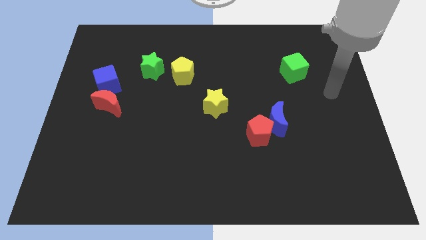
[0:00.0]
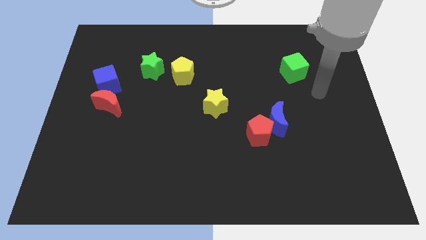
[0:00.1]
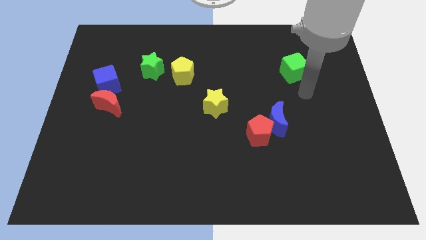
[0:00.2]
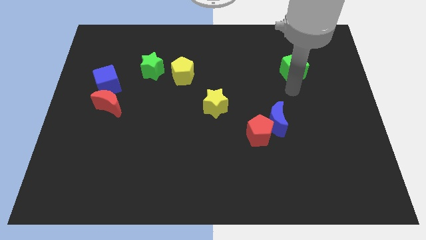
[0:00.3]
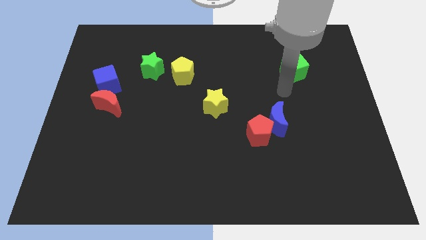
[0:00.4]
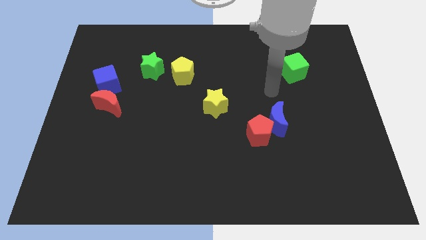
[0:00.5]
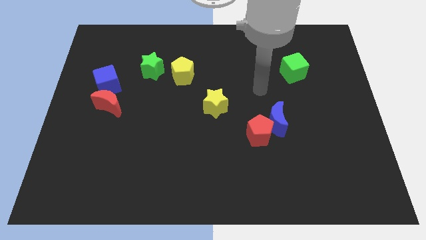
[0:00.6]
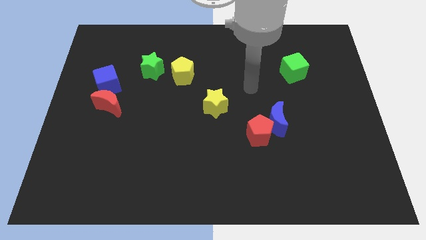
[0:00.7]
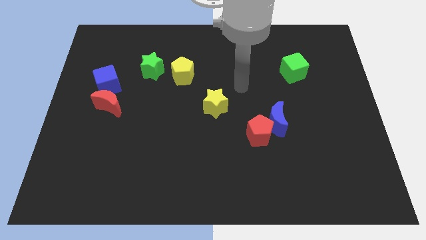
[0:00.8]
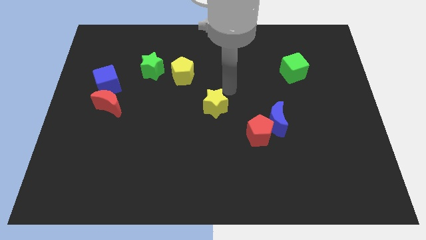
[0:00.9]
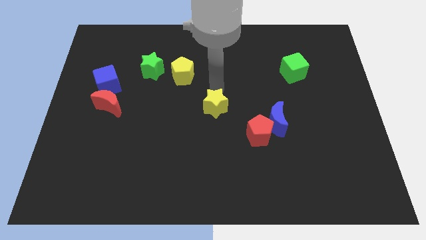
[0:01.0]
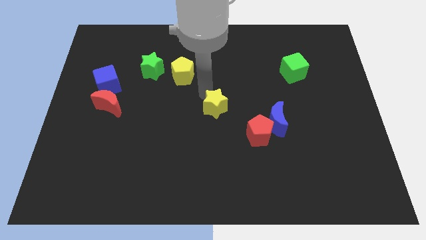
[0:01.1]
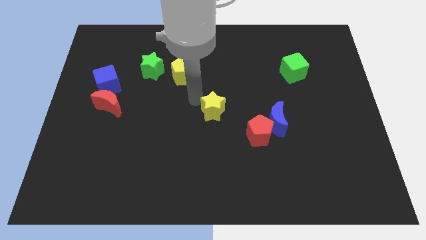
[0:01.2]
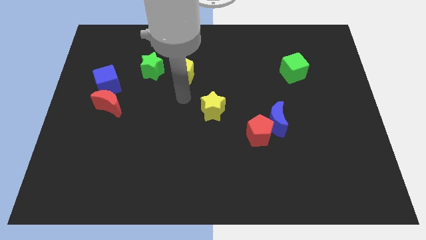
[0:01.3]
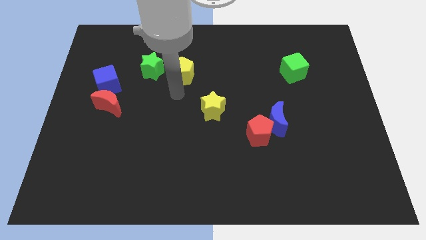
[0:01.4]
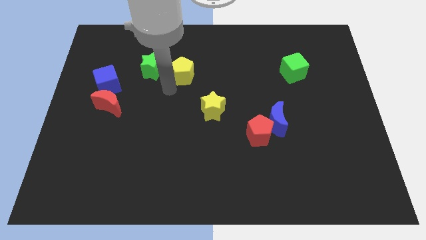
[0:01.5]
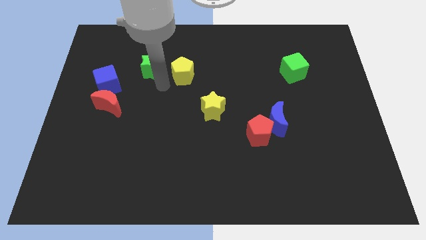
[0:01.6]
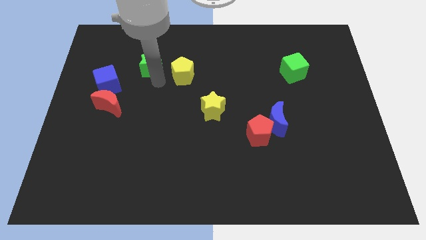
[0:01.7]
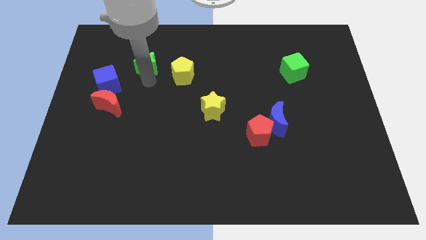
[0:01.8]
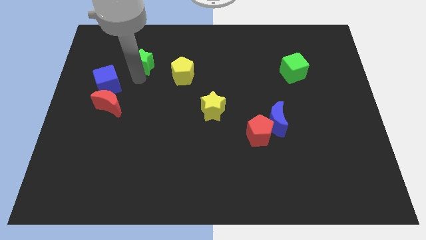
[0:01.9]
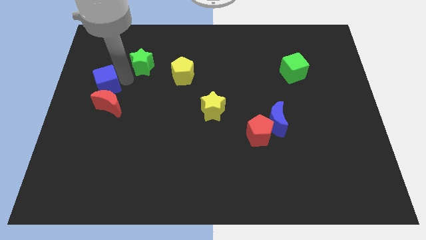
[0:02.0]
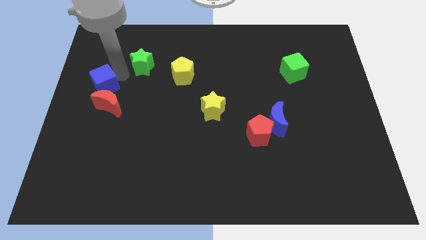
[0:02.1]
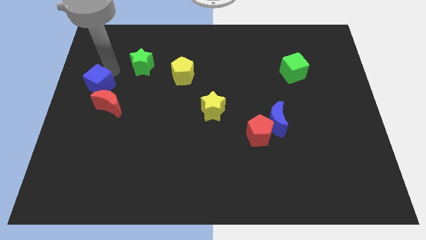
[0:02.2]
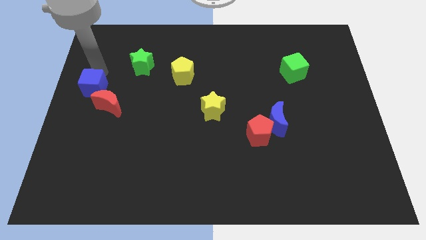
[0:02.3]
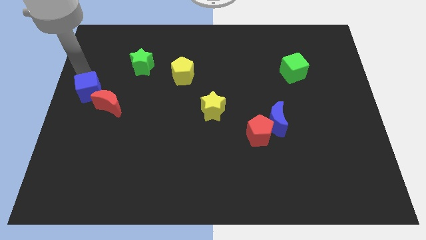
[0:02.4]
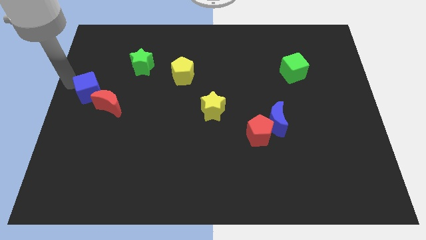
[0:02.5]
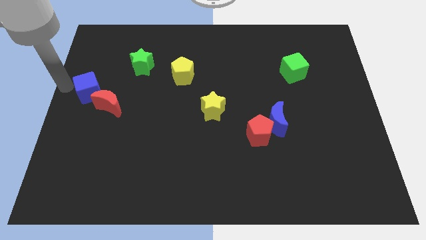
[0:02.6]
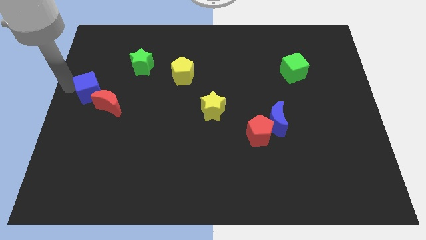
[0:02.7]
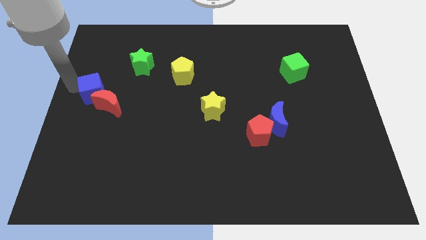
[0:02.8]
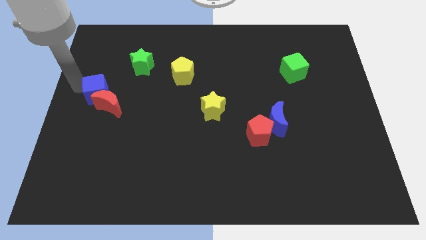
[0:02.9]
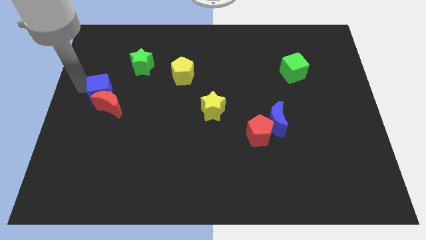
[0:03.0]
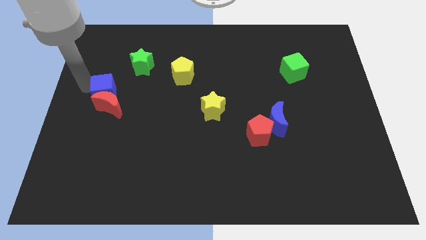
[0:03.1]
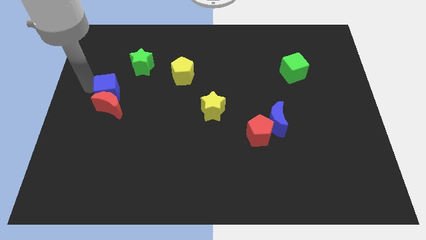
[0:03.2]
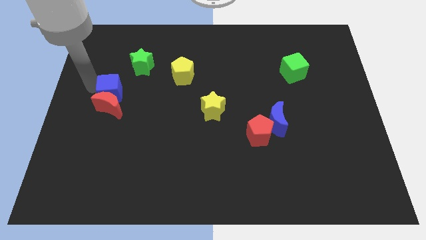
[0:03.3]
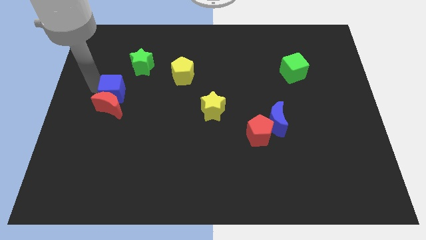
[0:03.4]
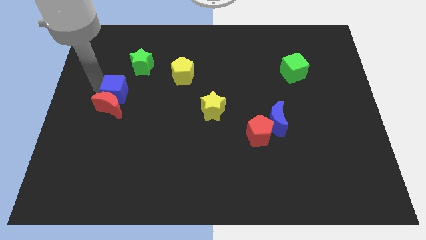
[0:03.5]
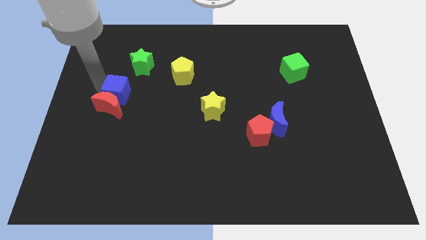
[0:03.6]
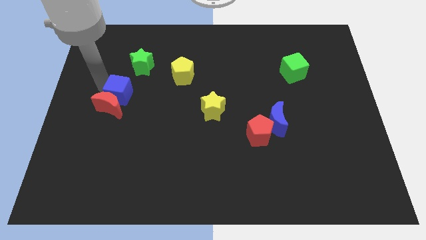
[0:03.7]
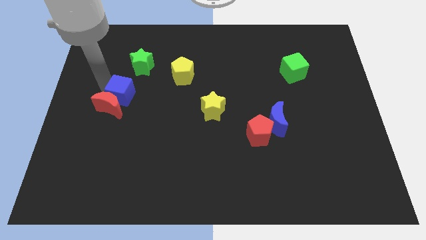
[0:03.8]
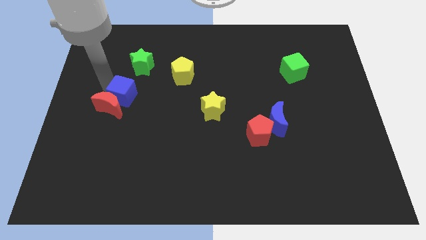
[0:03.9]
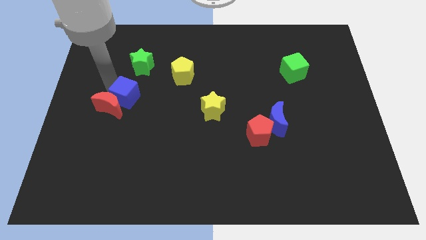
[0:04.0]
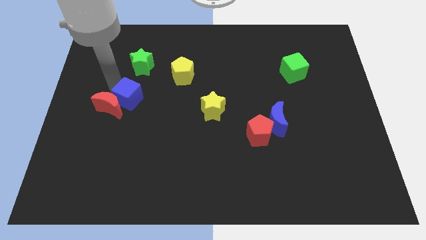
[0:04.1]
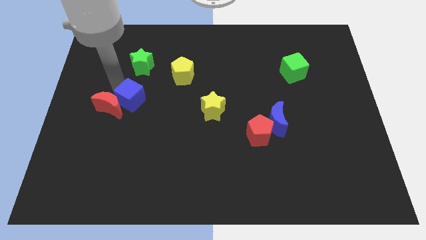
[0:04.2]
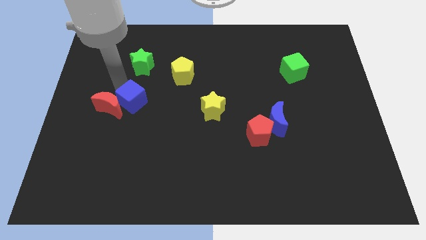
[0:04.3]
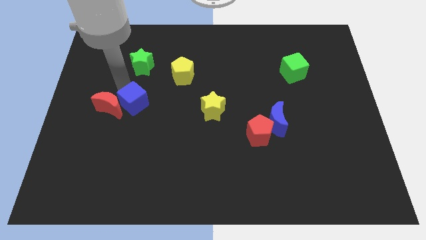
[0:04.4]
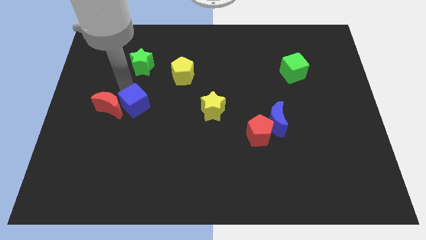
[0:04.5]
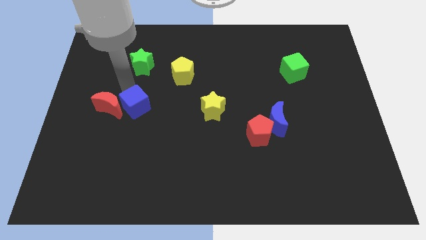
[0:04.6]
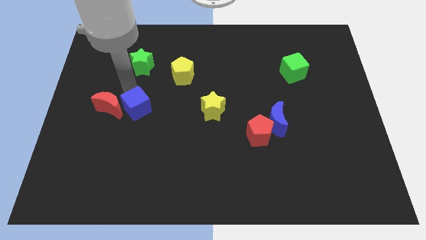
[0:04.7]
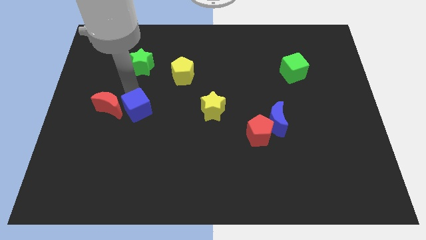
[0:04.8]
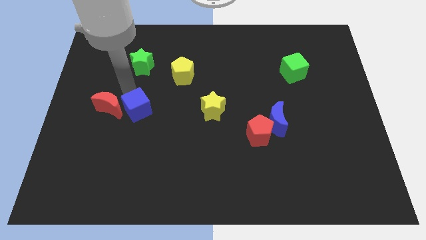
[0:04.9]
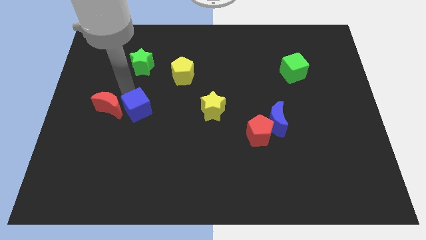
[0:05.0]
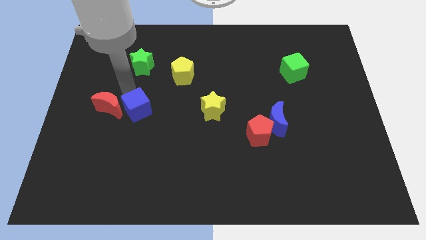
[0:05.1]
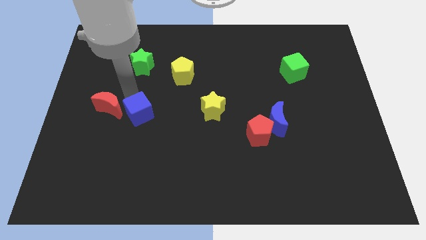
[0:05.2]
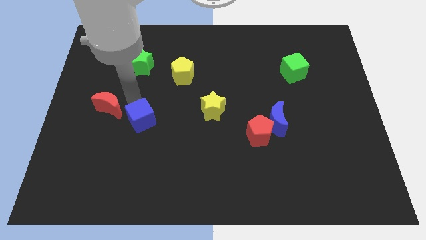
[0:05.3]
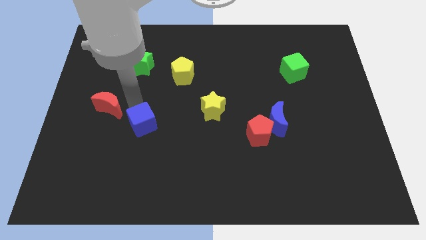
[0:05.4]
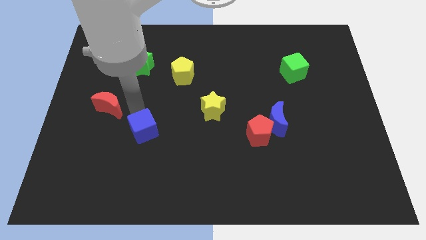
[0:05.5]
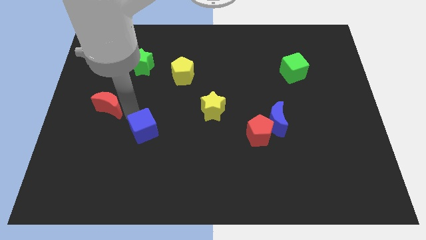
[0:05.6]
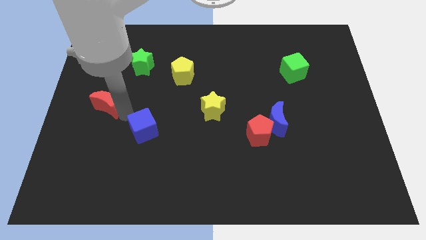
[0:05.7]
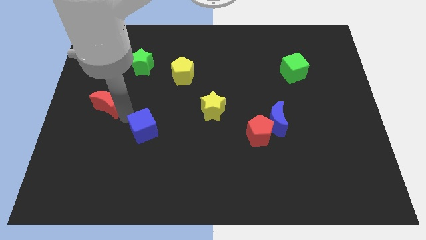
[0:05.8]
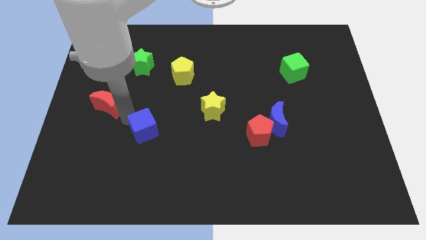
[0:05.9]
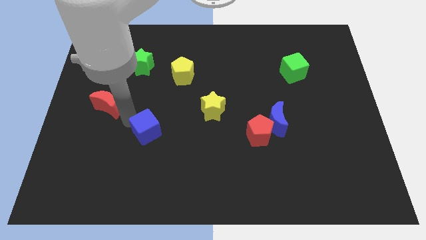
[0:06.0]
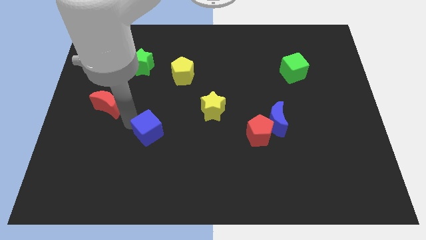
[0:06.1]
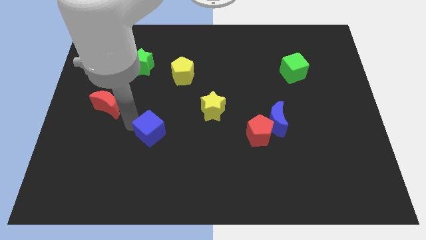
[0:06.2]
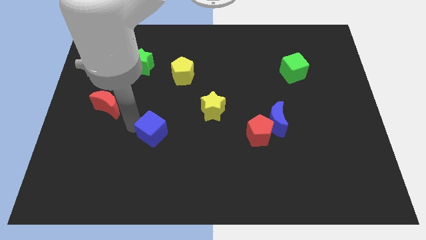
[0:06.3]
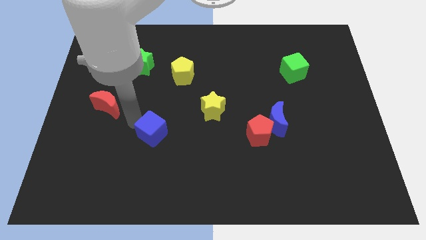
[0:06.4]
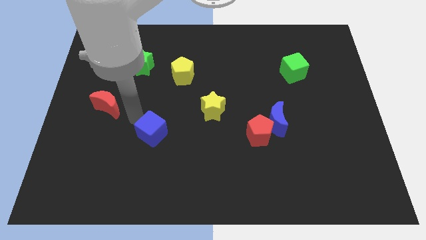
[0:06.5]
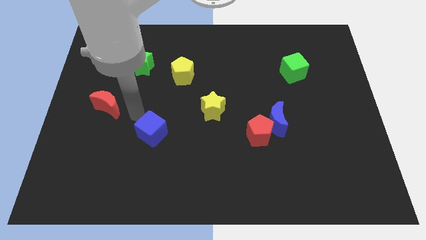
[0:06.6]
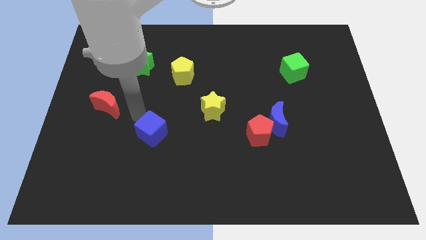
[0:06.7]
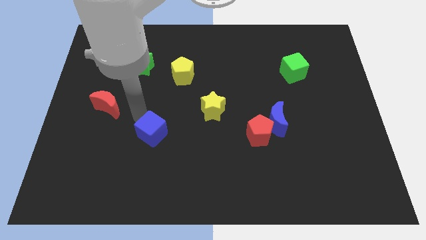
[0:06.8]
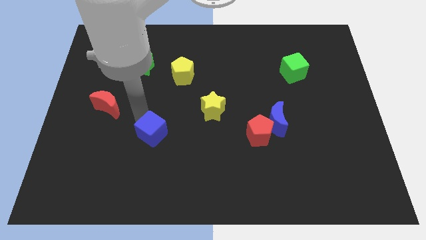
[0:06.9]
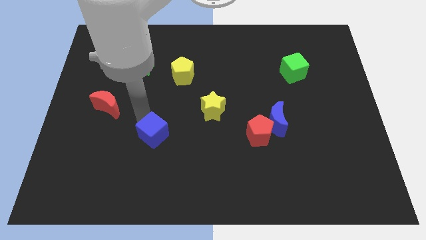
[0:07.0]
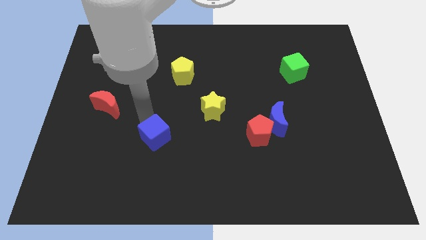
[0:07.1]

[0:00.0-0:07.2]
push the blue cube downwards and then to the right

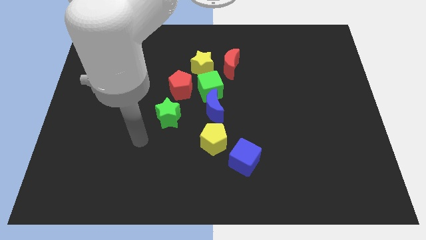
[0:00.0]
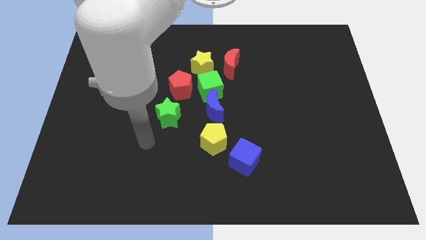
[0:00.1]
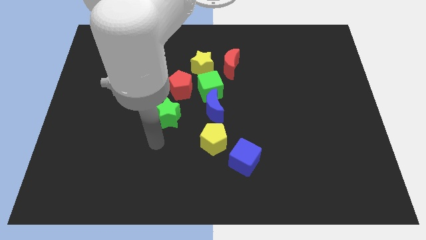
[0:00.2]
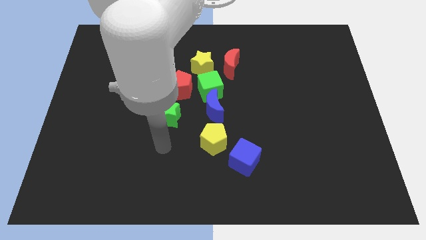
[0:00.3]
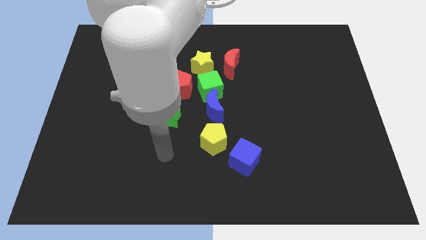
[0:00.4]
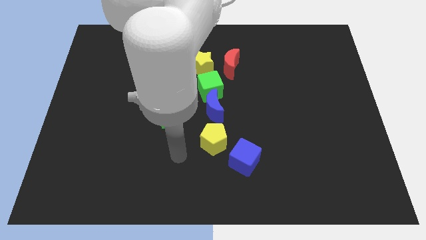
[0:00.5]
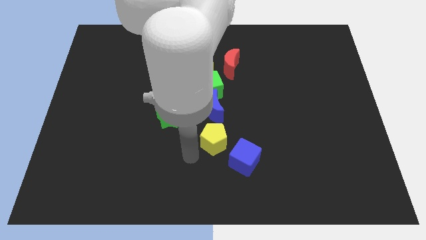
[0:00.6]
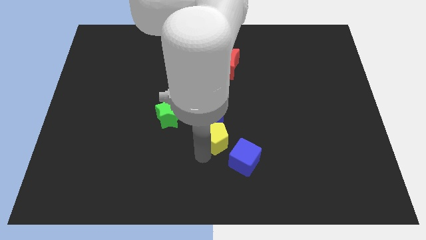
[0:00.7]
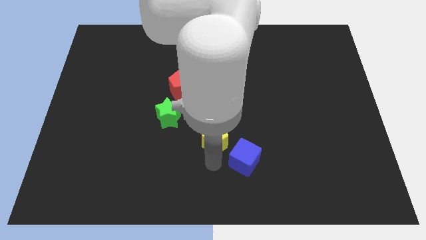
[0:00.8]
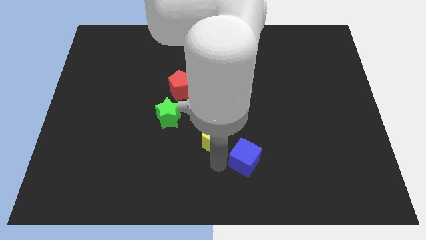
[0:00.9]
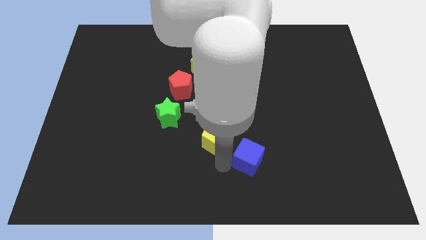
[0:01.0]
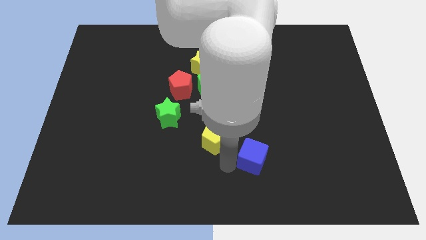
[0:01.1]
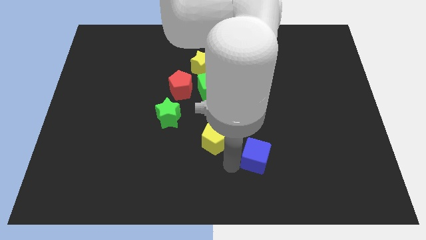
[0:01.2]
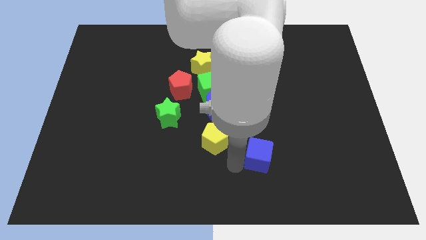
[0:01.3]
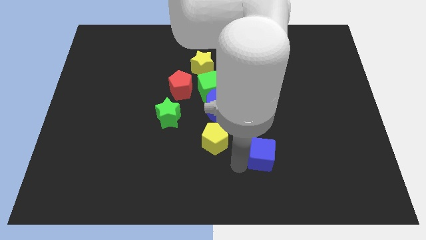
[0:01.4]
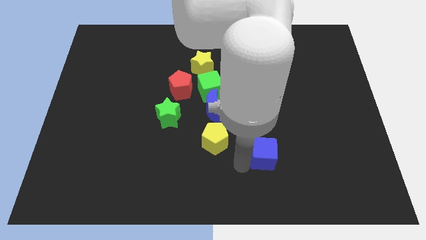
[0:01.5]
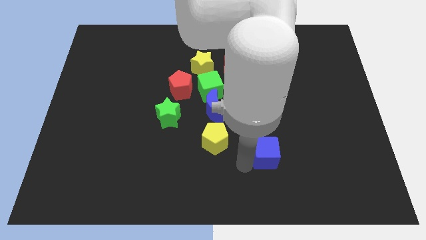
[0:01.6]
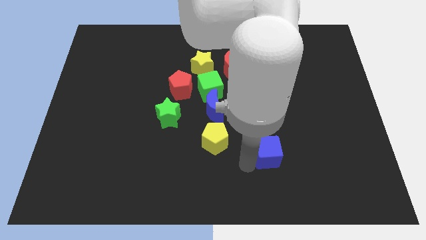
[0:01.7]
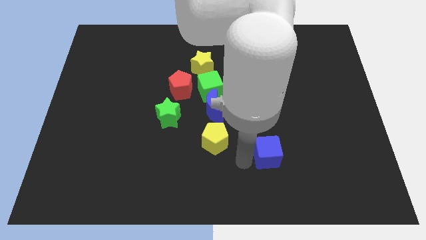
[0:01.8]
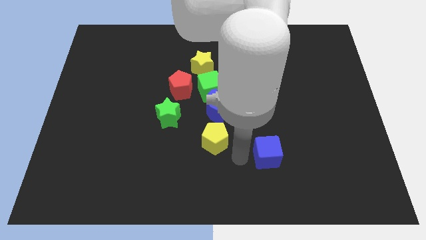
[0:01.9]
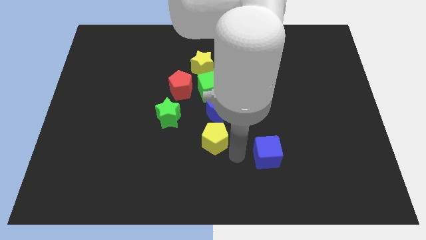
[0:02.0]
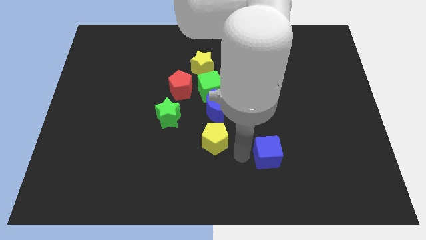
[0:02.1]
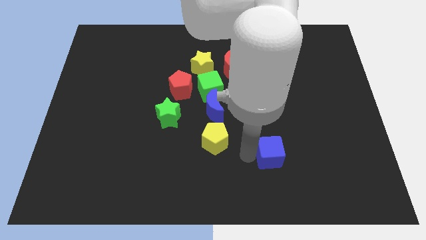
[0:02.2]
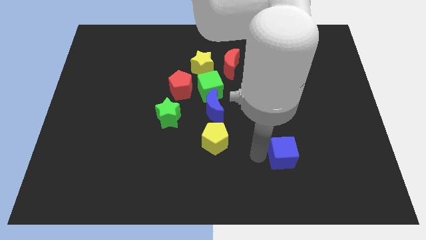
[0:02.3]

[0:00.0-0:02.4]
slightly move the blue cube right
